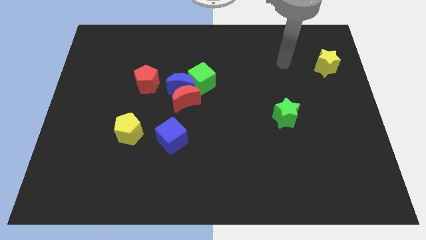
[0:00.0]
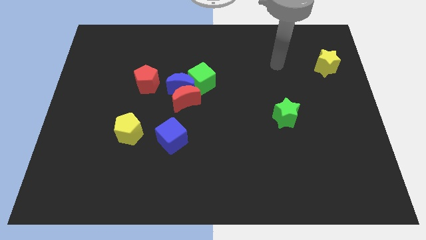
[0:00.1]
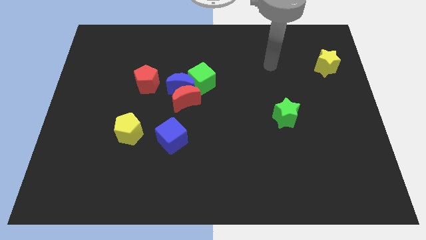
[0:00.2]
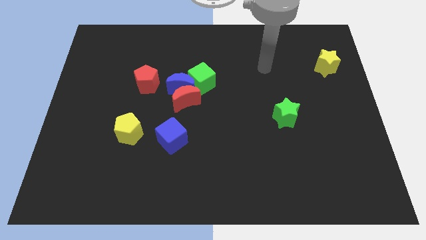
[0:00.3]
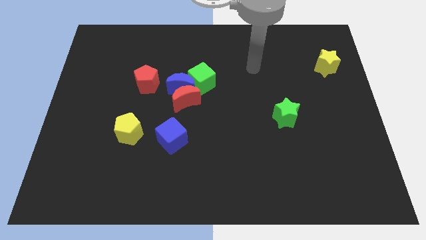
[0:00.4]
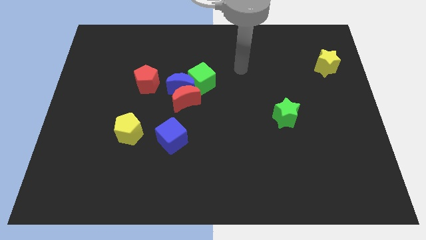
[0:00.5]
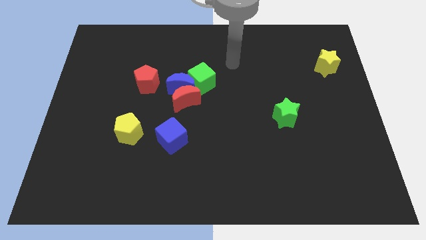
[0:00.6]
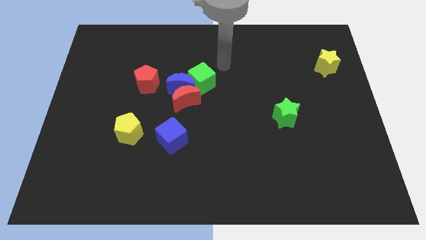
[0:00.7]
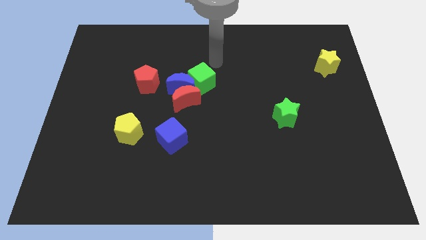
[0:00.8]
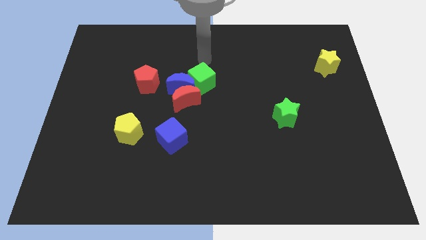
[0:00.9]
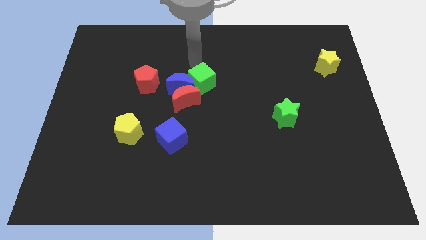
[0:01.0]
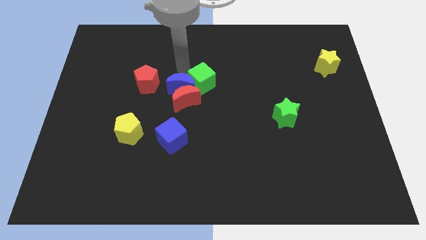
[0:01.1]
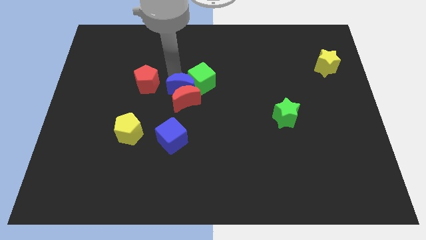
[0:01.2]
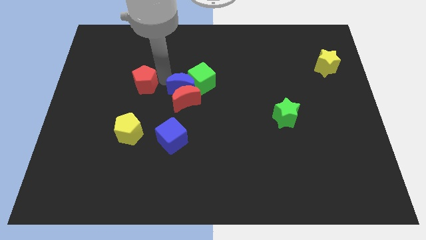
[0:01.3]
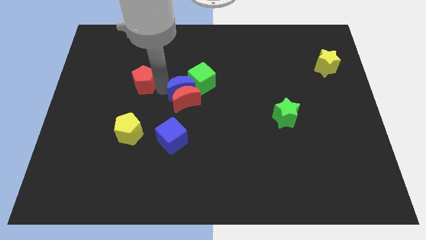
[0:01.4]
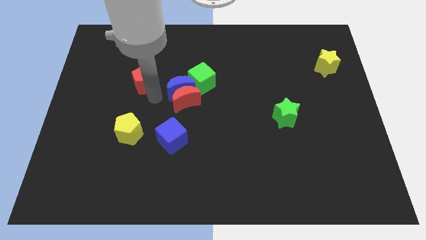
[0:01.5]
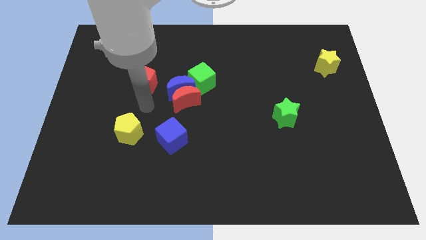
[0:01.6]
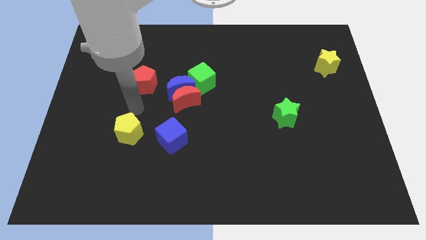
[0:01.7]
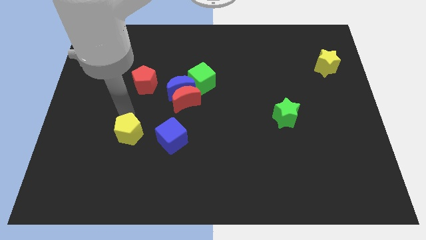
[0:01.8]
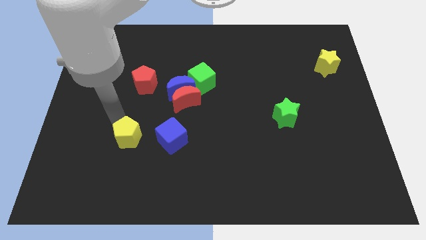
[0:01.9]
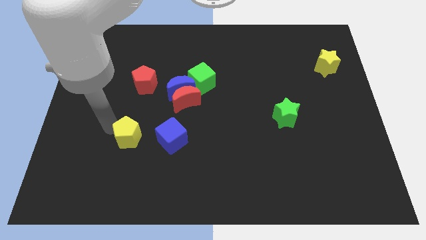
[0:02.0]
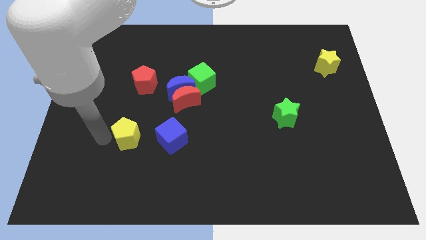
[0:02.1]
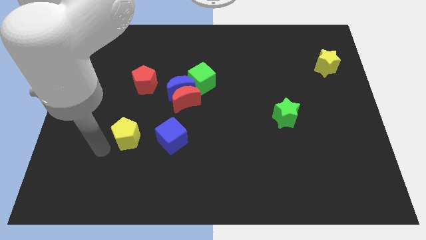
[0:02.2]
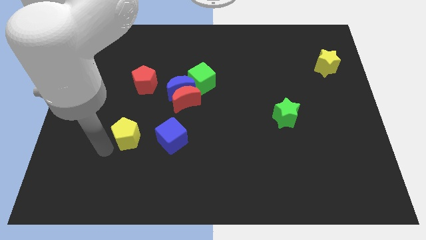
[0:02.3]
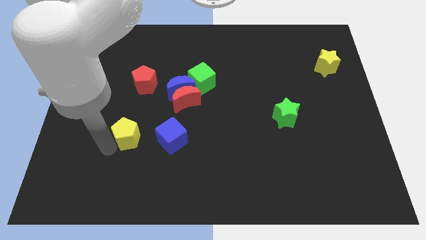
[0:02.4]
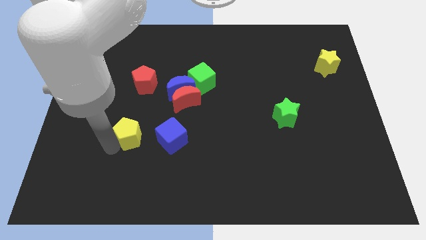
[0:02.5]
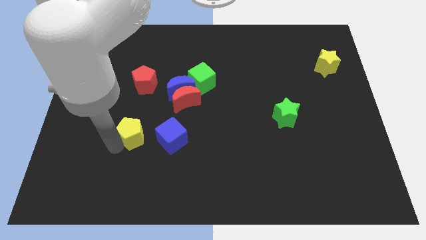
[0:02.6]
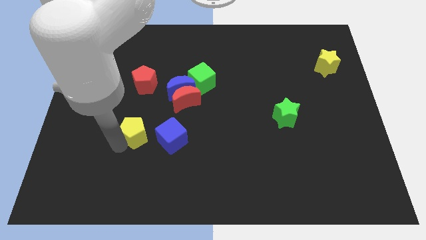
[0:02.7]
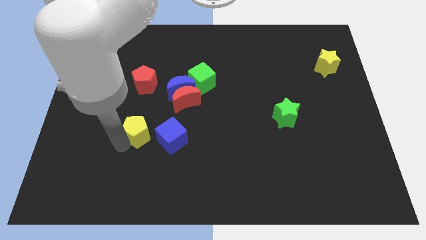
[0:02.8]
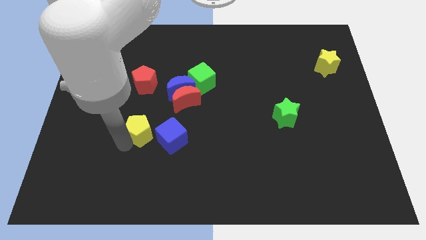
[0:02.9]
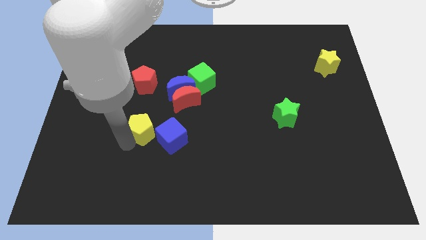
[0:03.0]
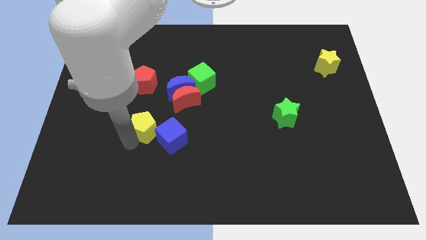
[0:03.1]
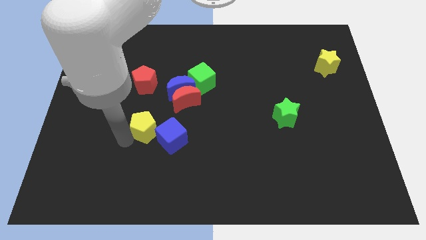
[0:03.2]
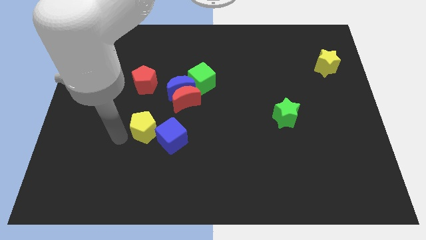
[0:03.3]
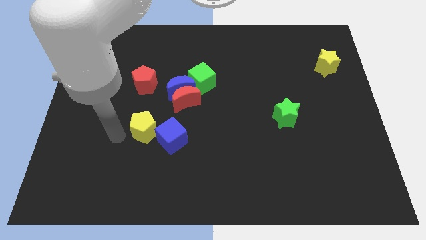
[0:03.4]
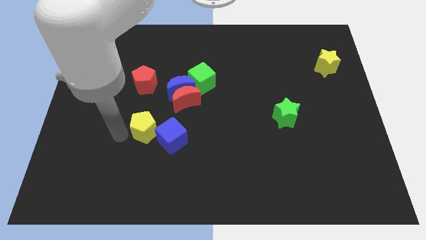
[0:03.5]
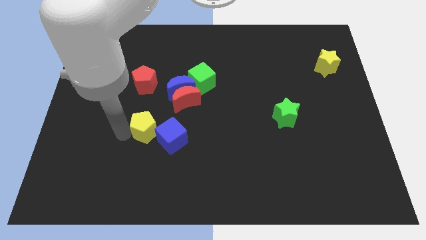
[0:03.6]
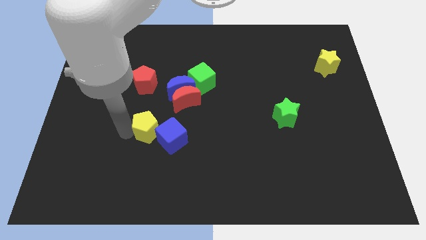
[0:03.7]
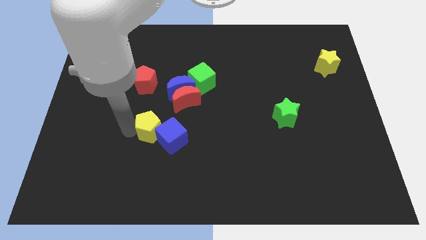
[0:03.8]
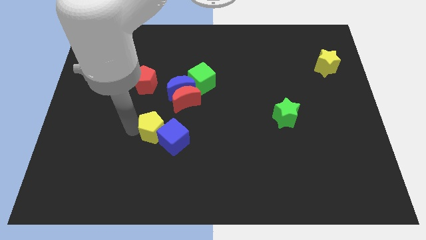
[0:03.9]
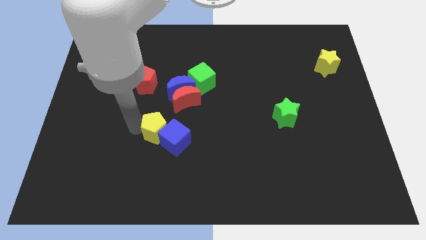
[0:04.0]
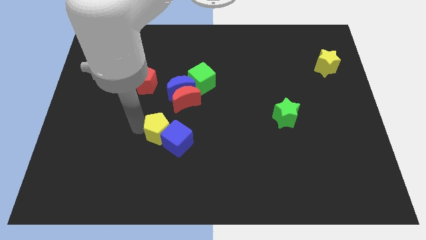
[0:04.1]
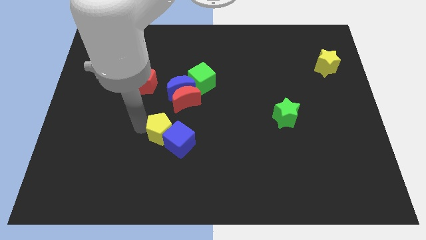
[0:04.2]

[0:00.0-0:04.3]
slightly slide the yellow pentagon to the right

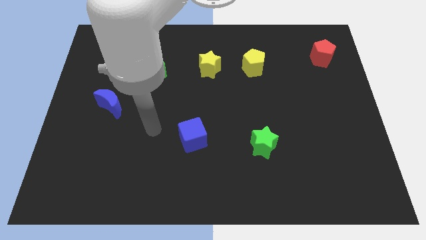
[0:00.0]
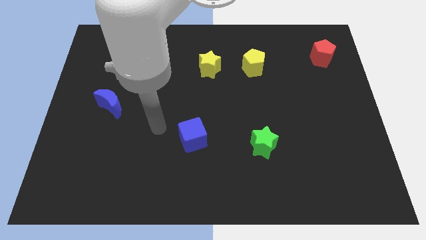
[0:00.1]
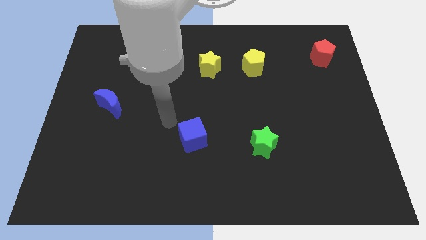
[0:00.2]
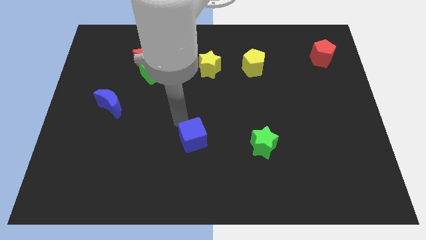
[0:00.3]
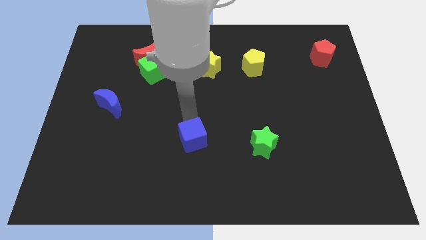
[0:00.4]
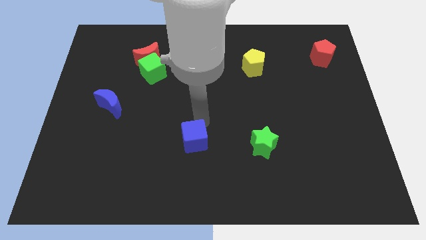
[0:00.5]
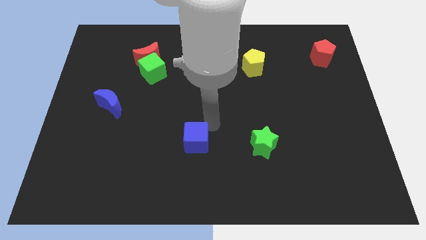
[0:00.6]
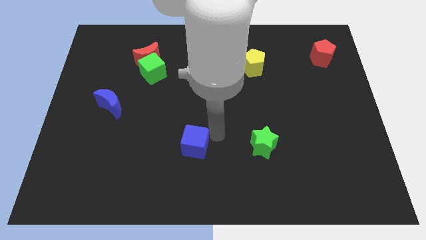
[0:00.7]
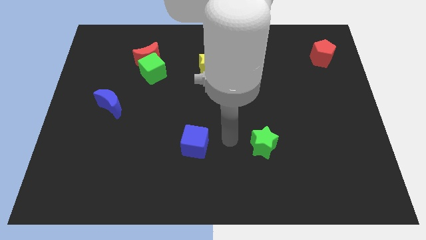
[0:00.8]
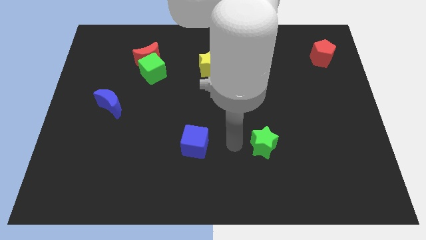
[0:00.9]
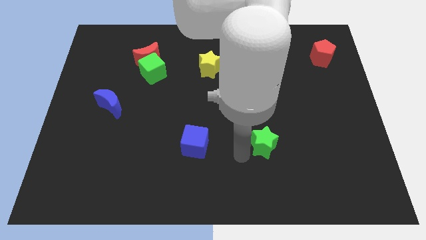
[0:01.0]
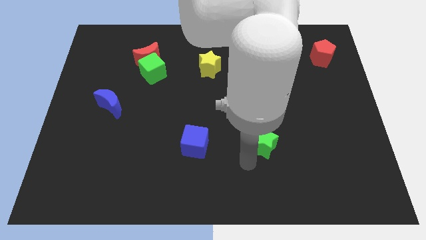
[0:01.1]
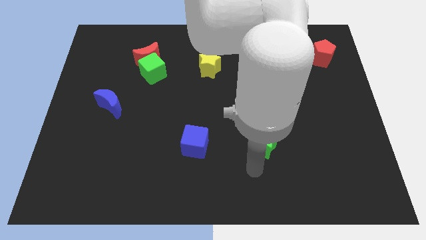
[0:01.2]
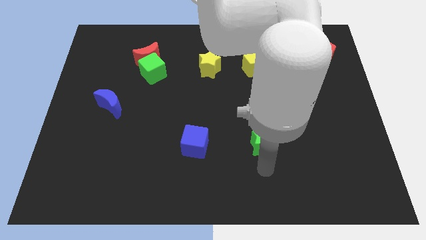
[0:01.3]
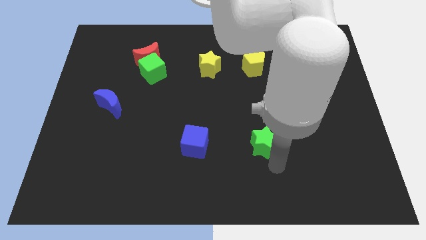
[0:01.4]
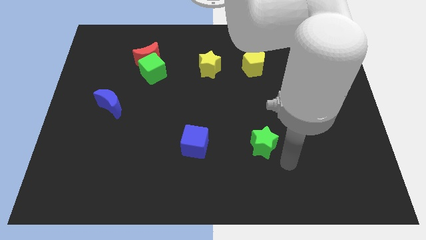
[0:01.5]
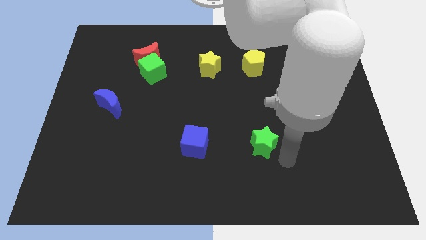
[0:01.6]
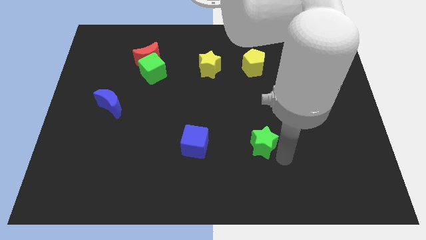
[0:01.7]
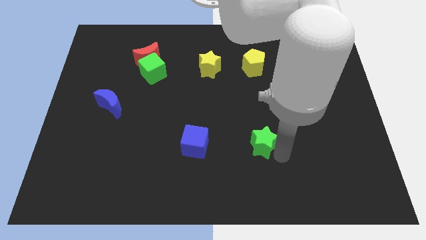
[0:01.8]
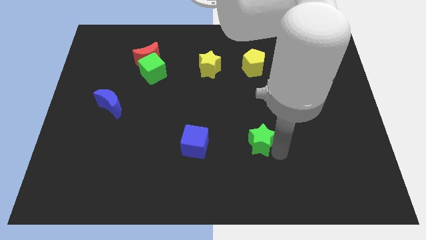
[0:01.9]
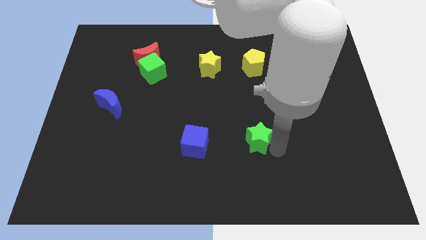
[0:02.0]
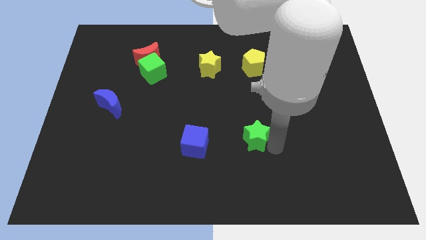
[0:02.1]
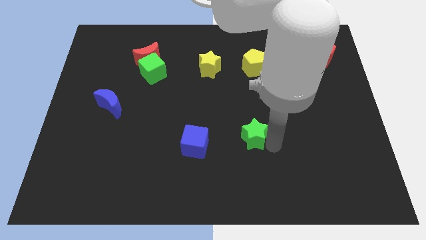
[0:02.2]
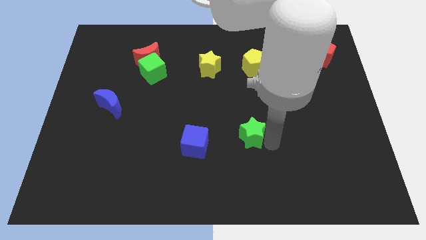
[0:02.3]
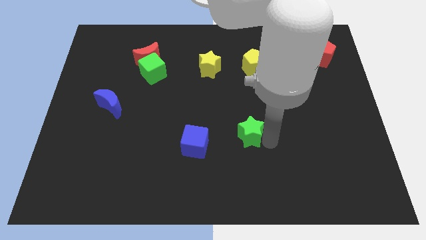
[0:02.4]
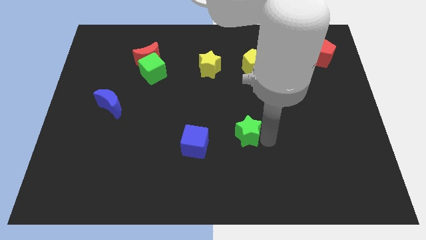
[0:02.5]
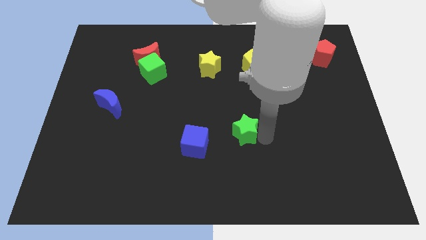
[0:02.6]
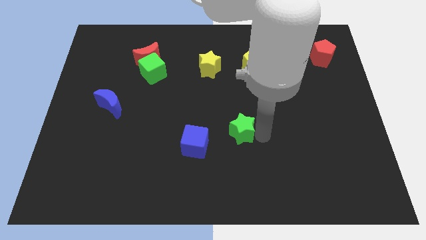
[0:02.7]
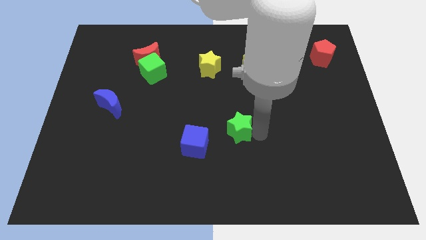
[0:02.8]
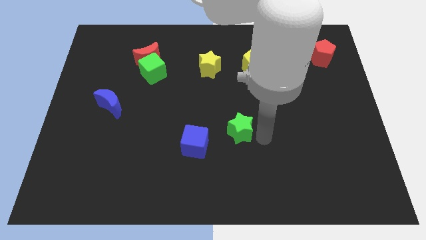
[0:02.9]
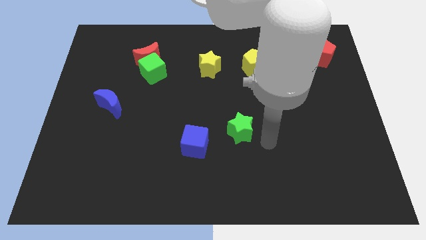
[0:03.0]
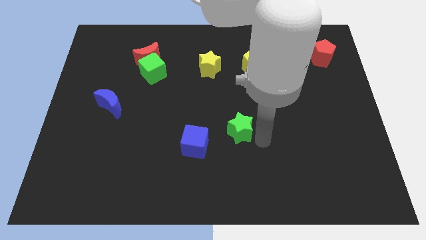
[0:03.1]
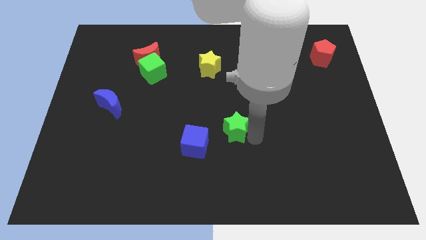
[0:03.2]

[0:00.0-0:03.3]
push the green star diagonally up and left a little

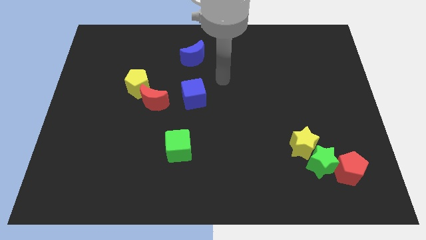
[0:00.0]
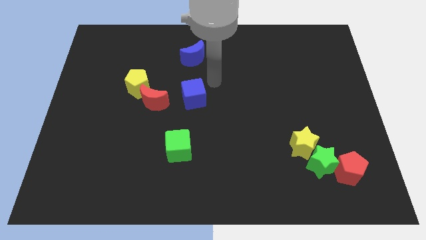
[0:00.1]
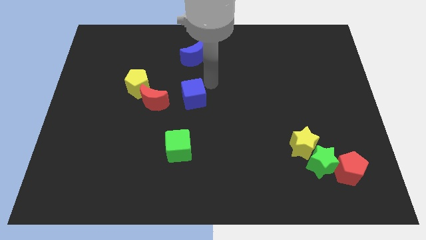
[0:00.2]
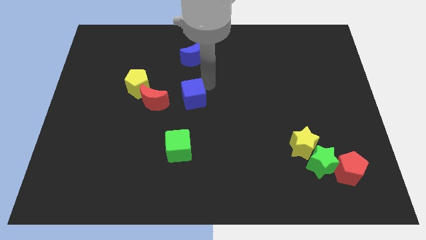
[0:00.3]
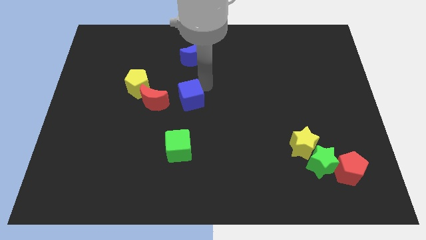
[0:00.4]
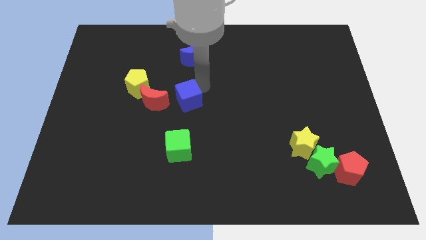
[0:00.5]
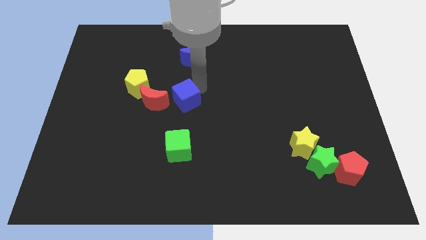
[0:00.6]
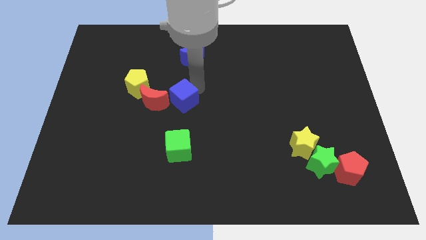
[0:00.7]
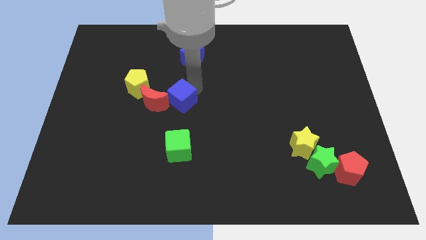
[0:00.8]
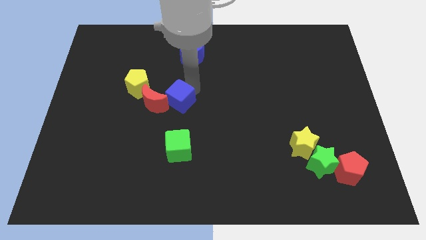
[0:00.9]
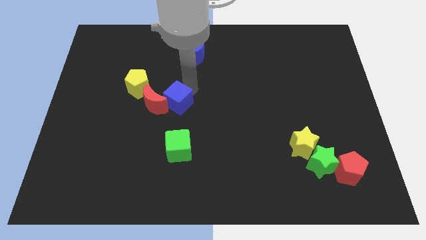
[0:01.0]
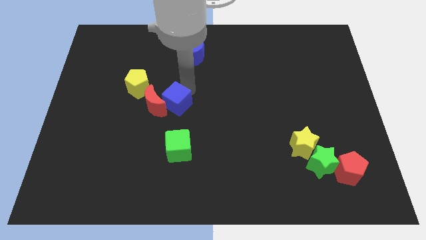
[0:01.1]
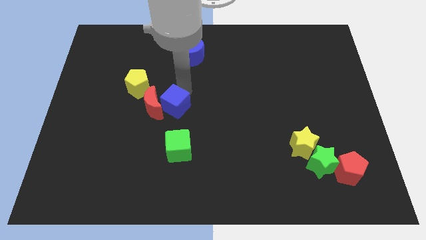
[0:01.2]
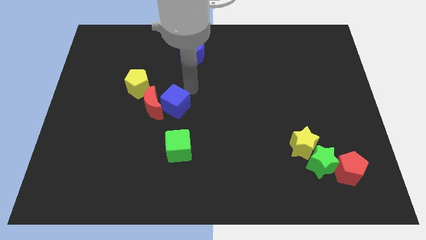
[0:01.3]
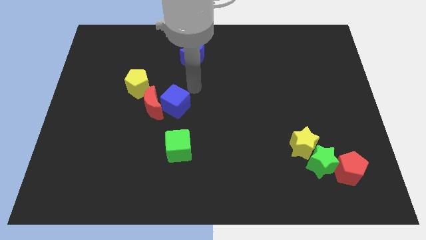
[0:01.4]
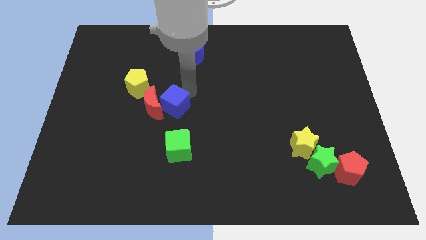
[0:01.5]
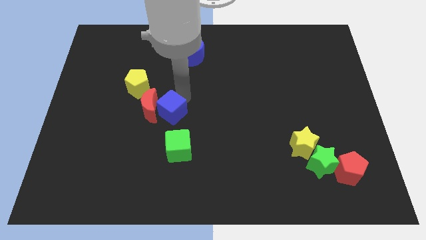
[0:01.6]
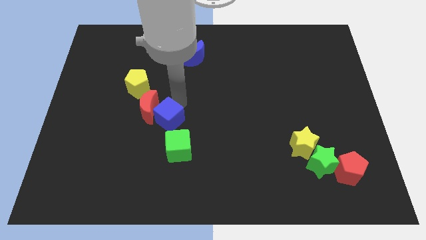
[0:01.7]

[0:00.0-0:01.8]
slide the blue cube down and left diagonally slightly
